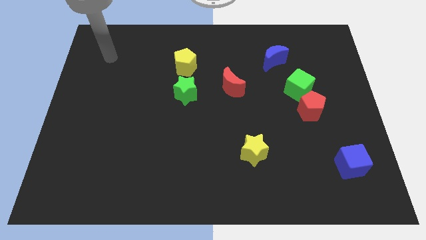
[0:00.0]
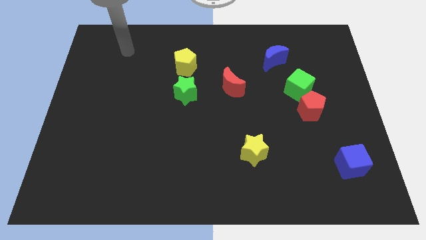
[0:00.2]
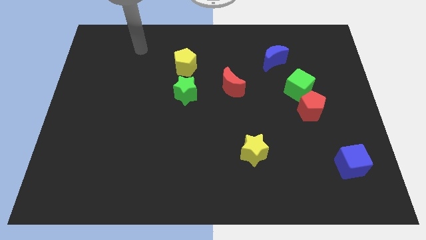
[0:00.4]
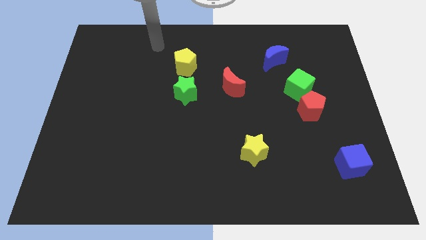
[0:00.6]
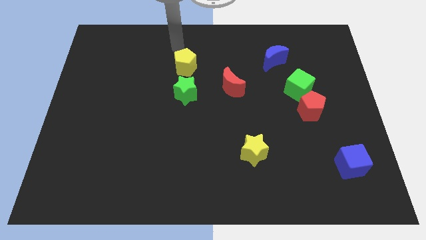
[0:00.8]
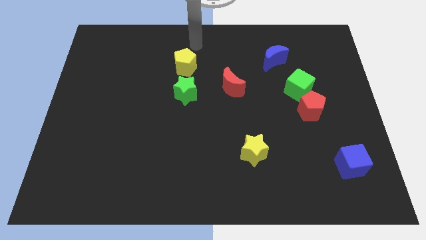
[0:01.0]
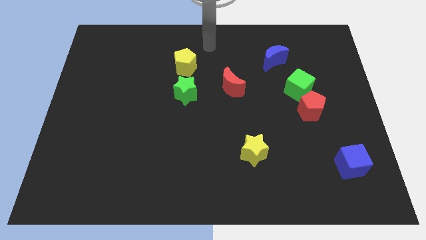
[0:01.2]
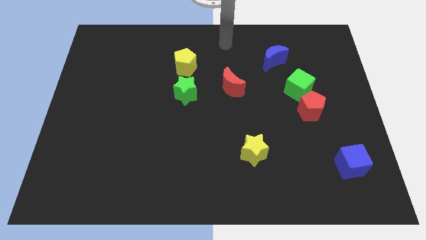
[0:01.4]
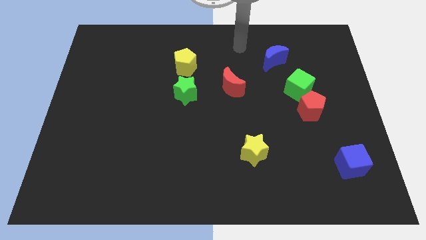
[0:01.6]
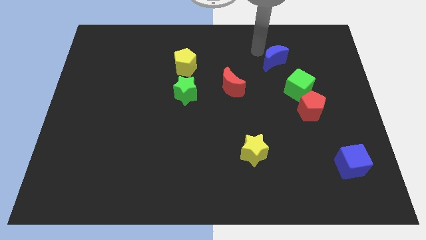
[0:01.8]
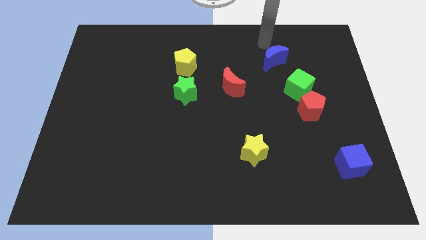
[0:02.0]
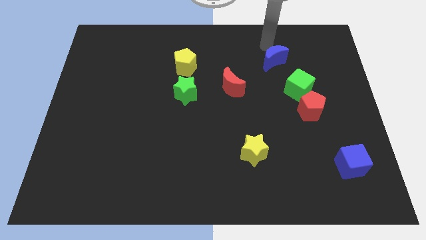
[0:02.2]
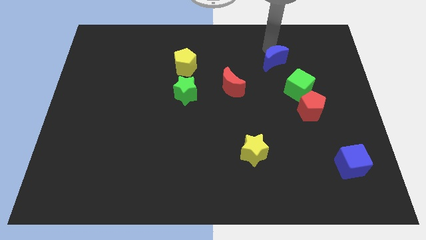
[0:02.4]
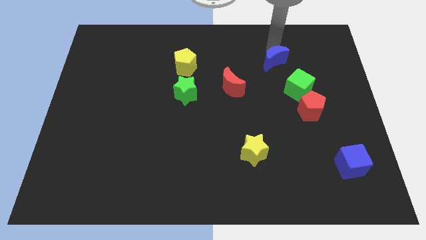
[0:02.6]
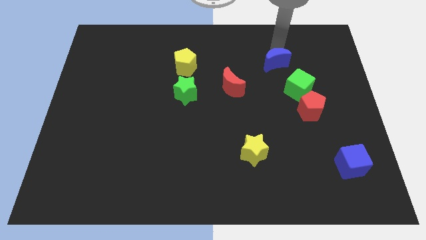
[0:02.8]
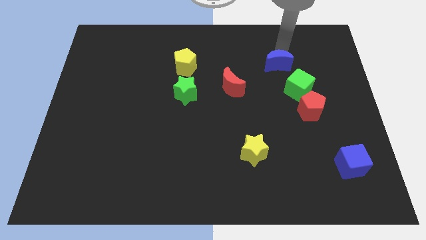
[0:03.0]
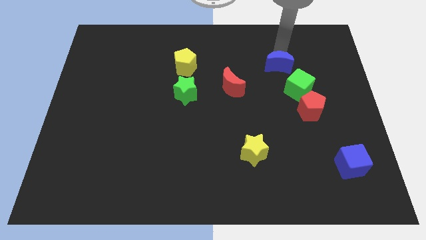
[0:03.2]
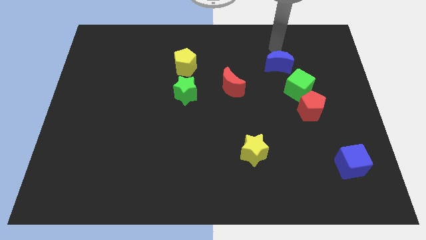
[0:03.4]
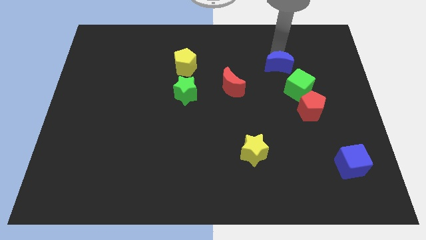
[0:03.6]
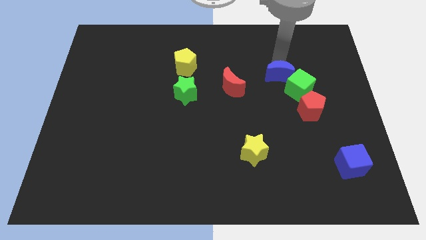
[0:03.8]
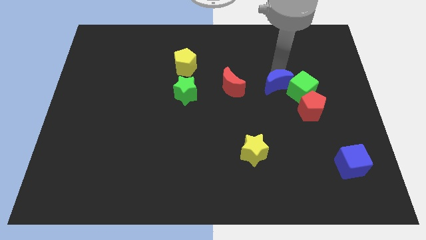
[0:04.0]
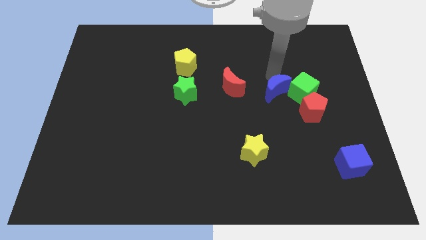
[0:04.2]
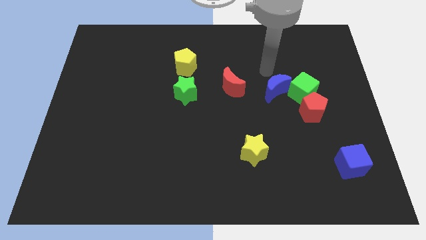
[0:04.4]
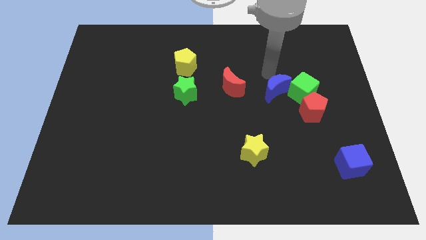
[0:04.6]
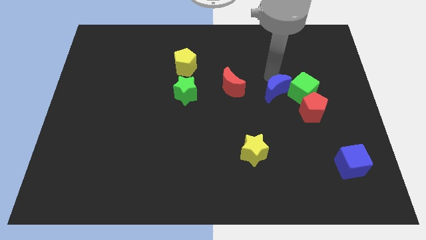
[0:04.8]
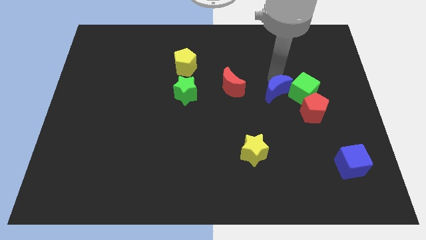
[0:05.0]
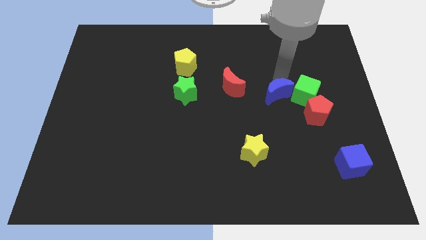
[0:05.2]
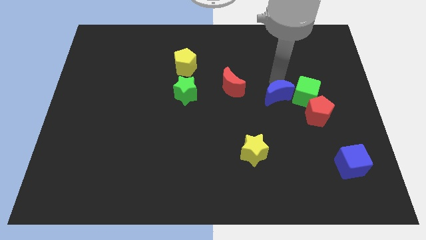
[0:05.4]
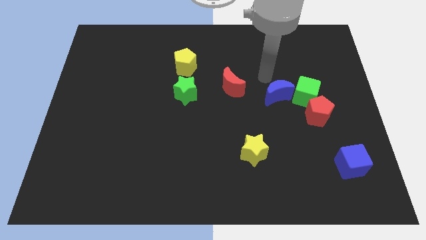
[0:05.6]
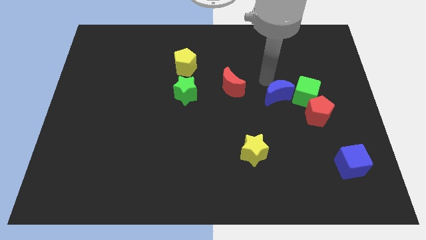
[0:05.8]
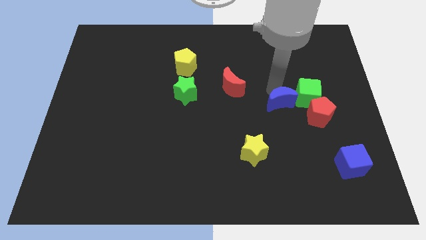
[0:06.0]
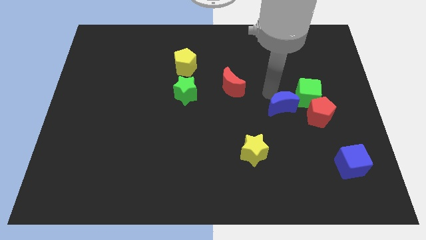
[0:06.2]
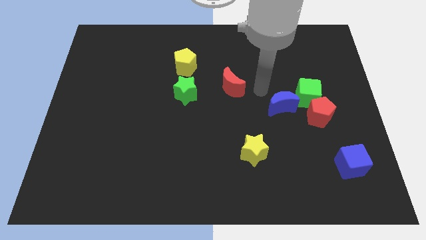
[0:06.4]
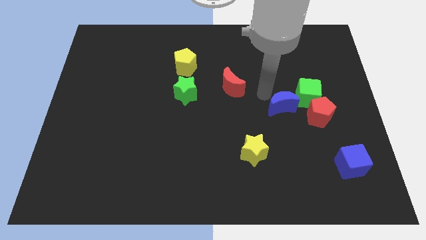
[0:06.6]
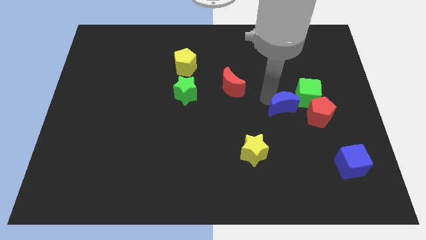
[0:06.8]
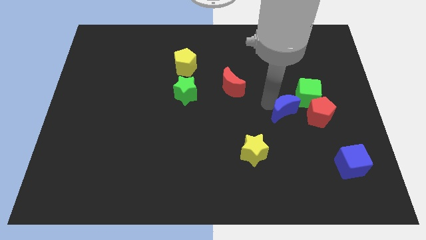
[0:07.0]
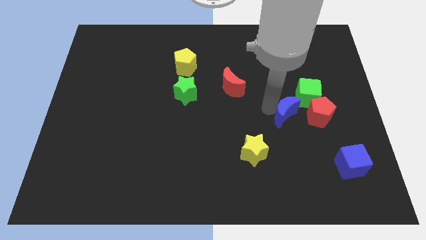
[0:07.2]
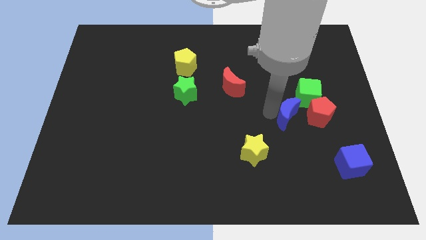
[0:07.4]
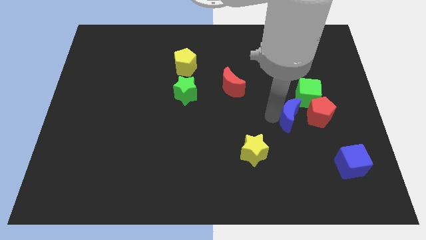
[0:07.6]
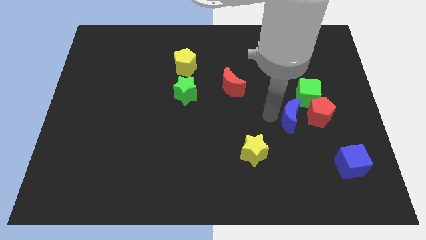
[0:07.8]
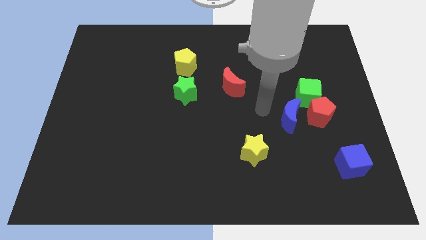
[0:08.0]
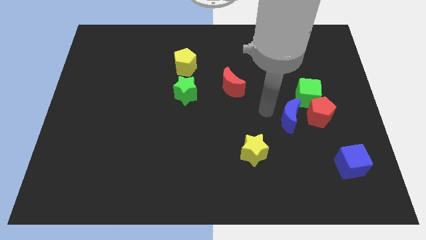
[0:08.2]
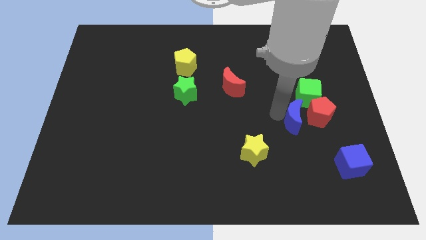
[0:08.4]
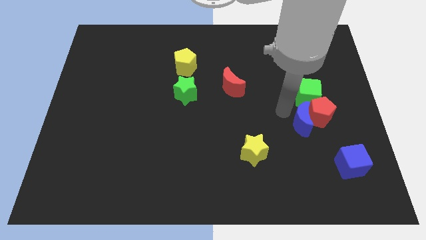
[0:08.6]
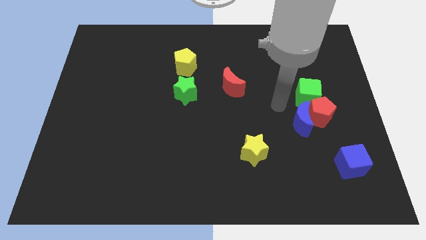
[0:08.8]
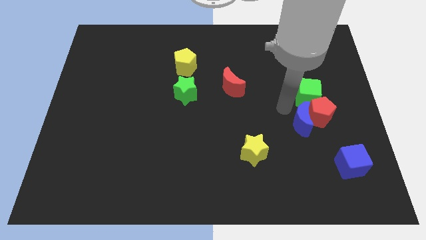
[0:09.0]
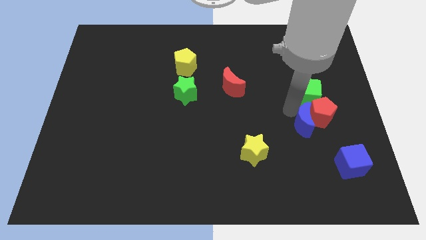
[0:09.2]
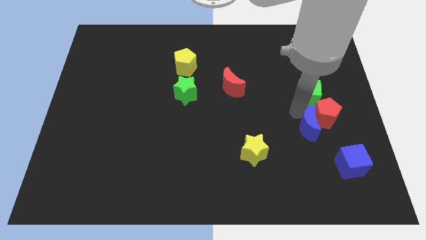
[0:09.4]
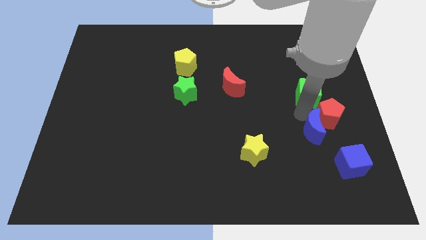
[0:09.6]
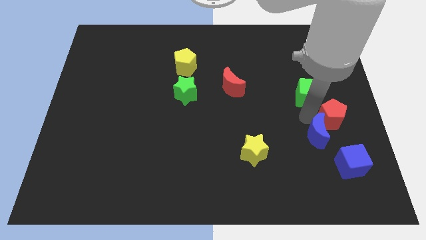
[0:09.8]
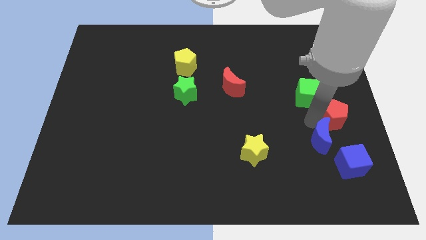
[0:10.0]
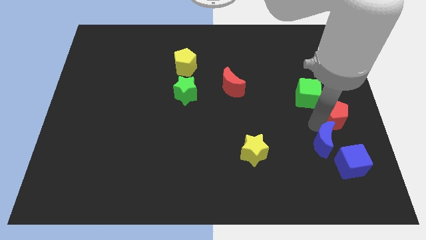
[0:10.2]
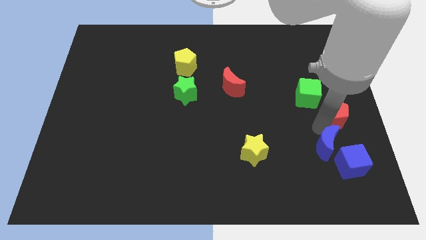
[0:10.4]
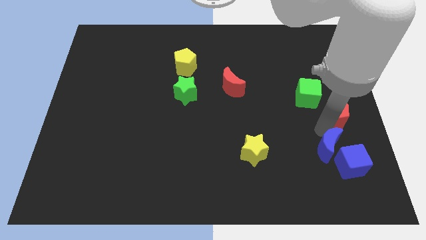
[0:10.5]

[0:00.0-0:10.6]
put the blue moon close to the blue cube

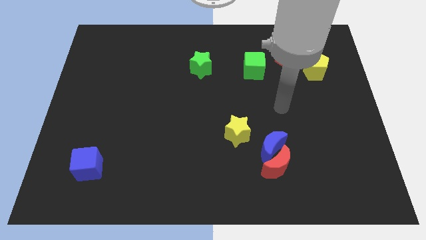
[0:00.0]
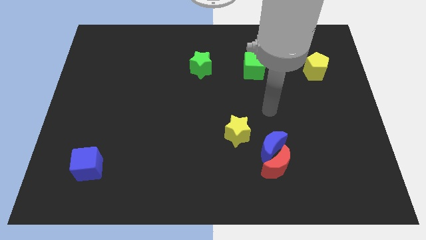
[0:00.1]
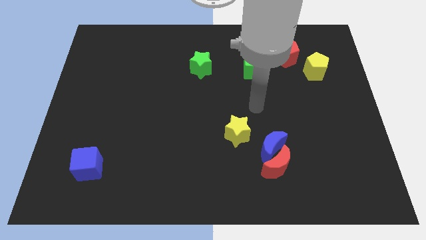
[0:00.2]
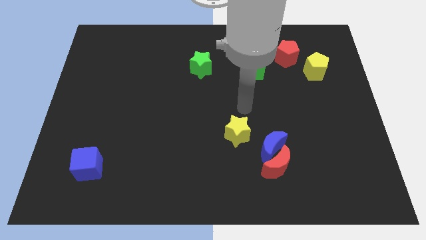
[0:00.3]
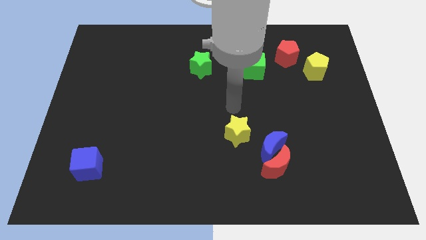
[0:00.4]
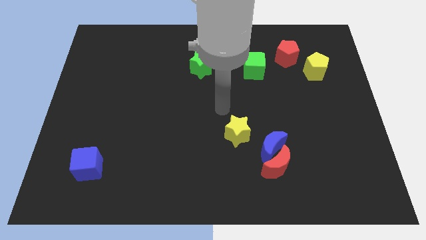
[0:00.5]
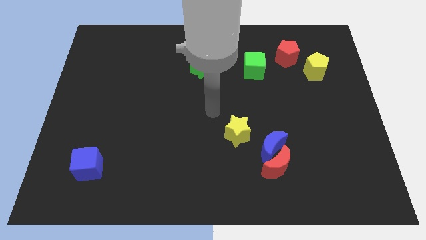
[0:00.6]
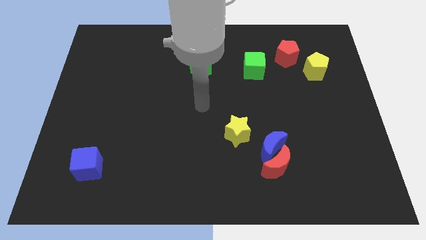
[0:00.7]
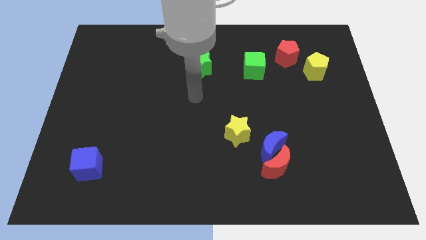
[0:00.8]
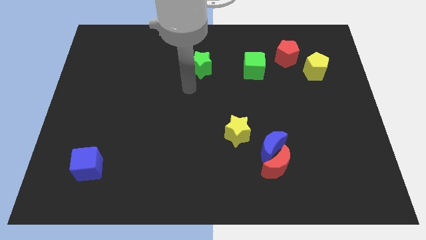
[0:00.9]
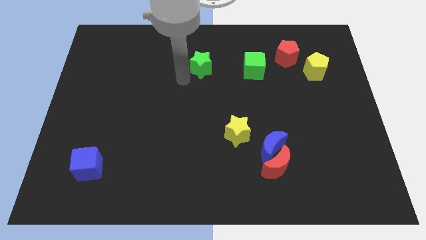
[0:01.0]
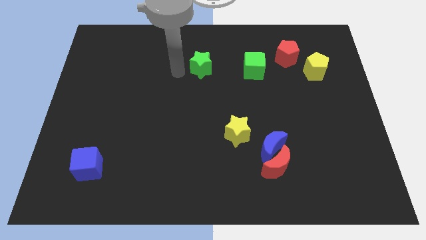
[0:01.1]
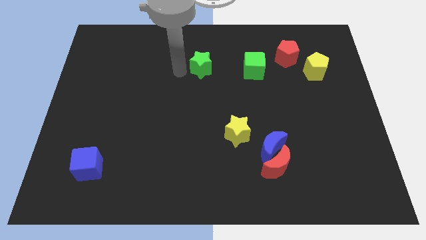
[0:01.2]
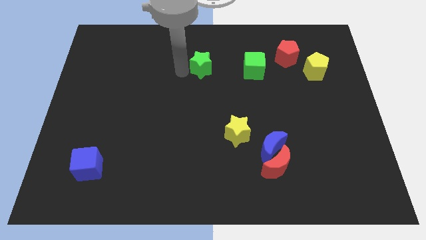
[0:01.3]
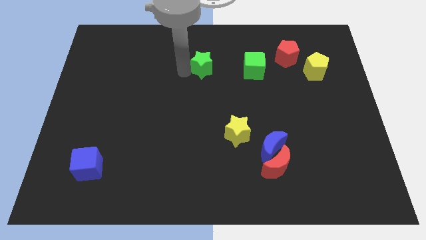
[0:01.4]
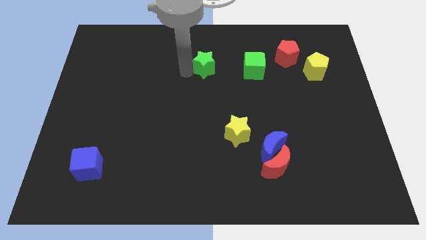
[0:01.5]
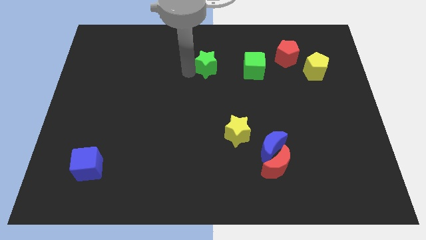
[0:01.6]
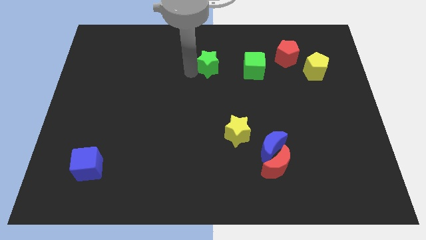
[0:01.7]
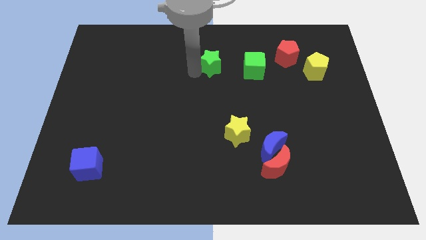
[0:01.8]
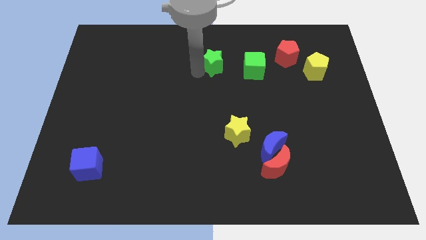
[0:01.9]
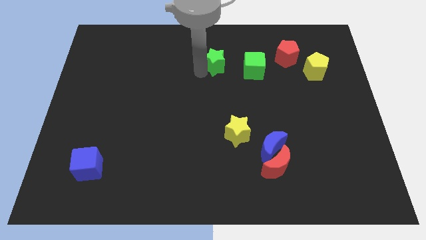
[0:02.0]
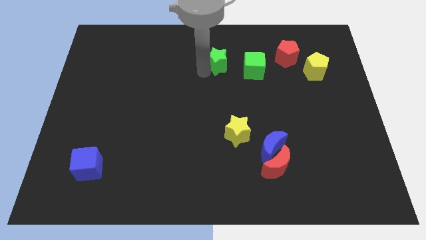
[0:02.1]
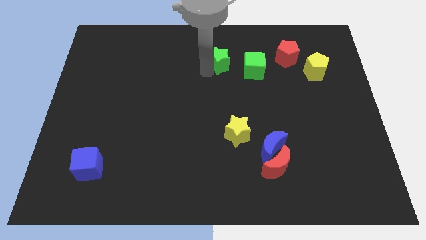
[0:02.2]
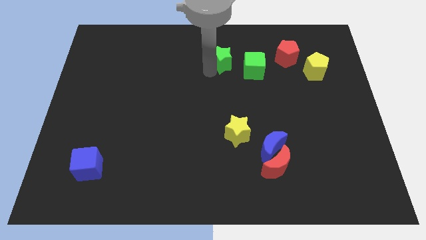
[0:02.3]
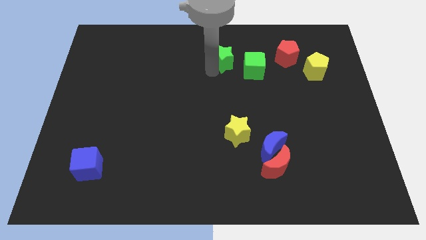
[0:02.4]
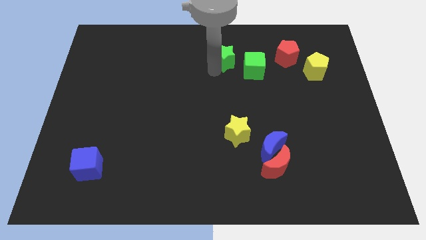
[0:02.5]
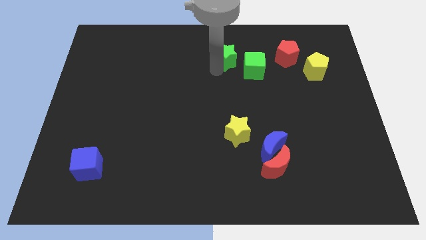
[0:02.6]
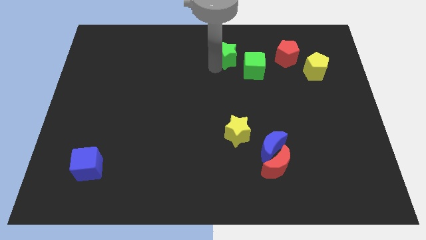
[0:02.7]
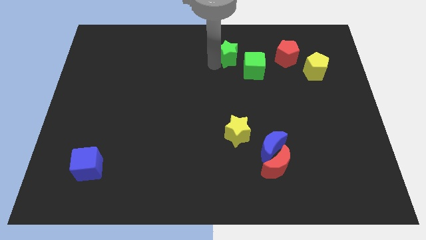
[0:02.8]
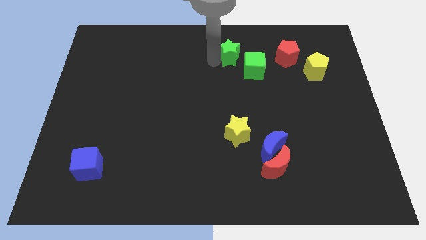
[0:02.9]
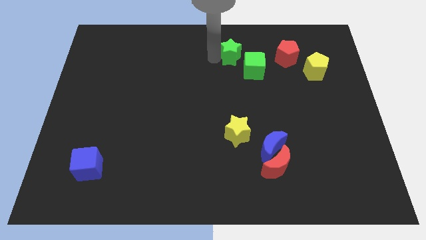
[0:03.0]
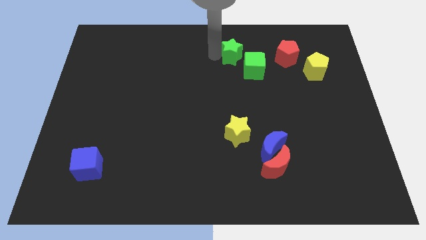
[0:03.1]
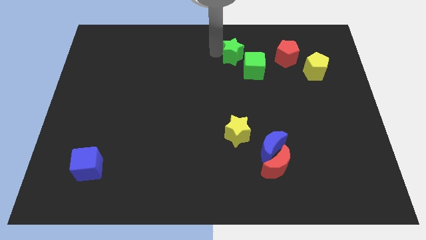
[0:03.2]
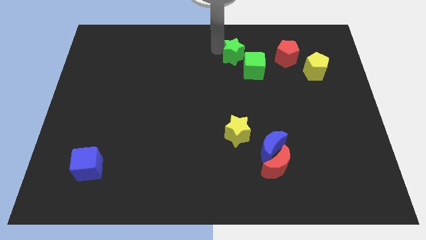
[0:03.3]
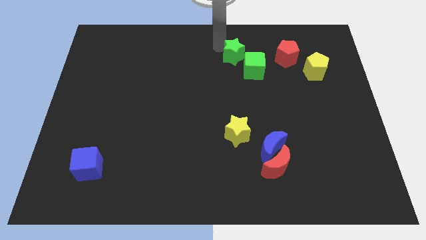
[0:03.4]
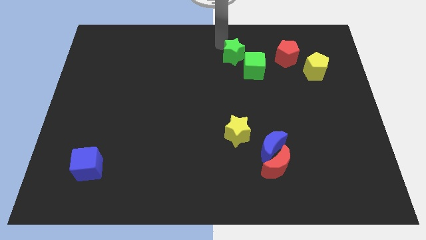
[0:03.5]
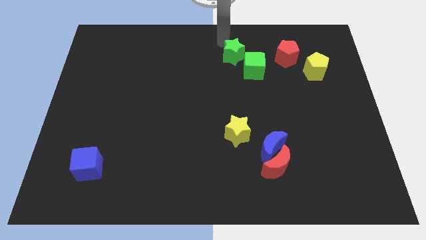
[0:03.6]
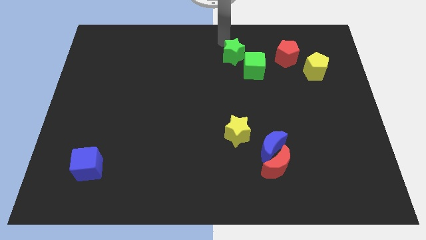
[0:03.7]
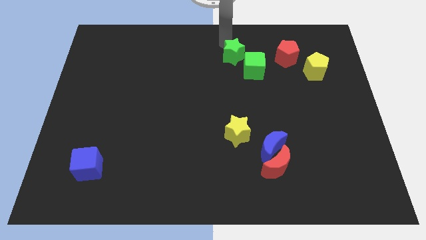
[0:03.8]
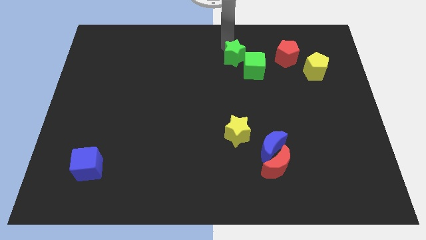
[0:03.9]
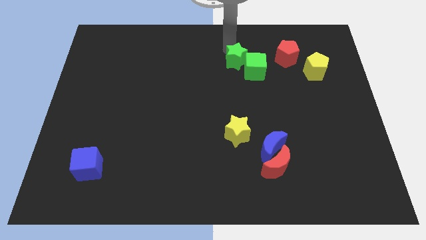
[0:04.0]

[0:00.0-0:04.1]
push the green star next to the green cube
